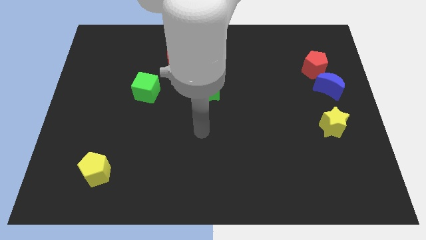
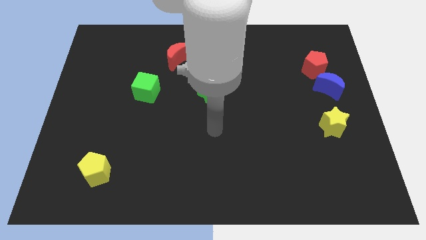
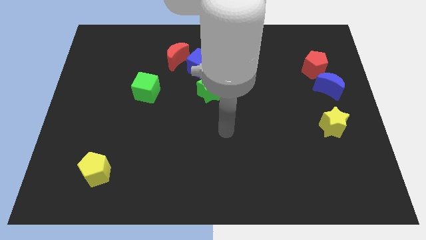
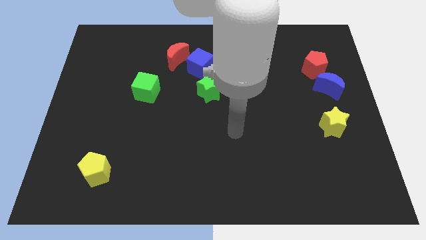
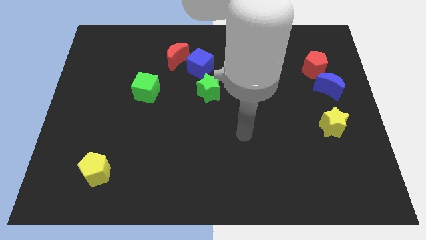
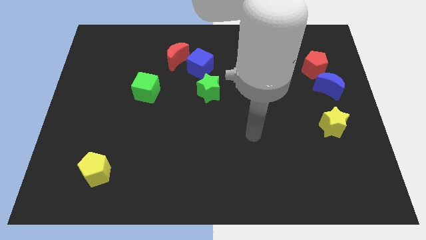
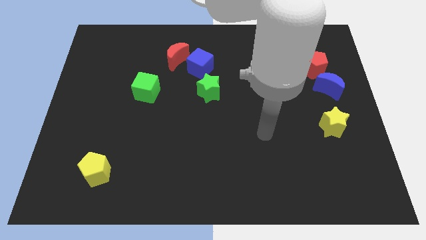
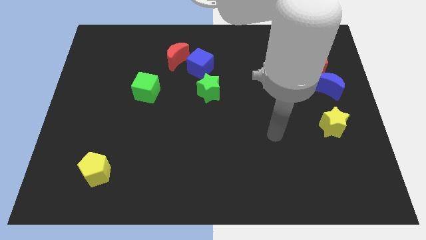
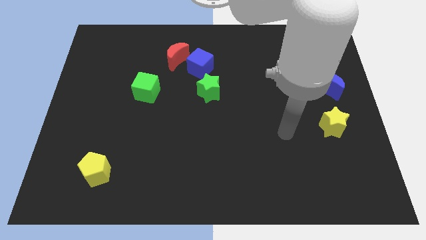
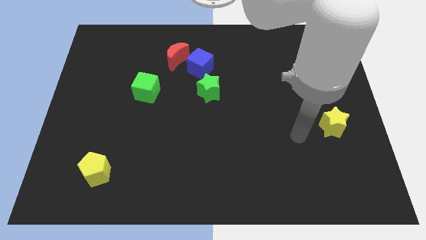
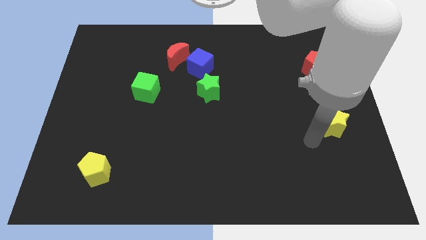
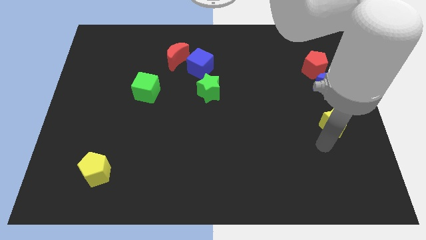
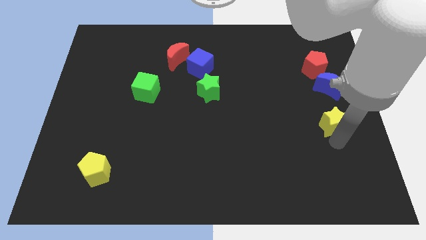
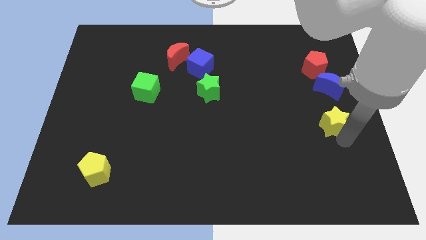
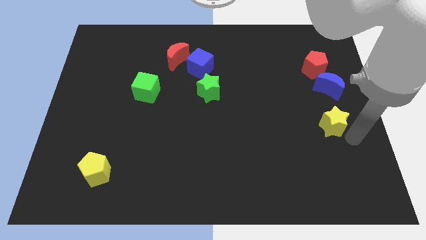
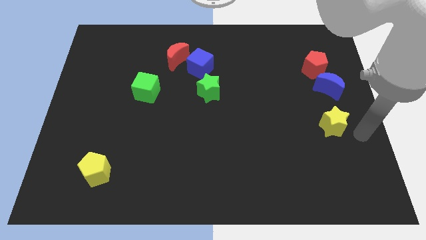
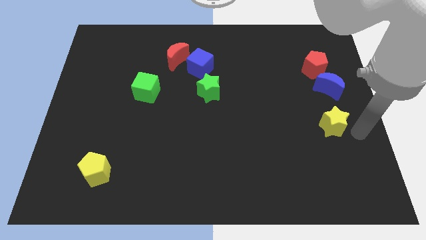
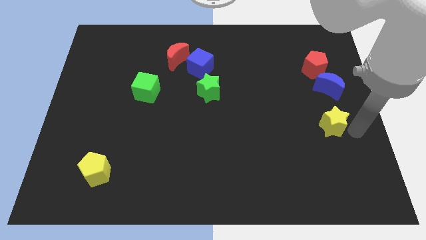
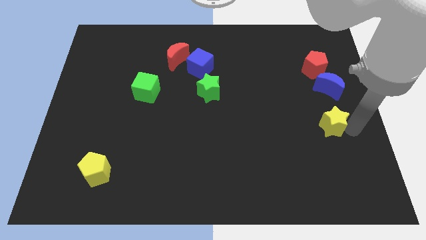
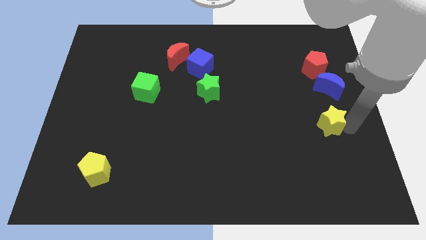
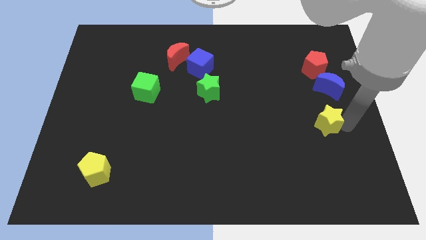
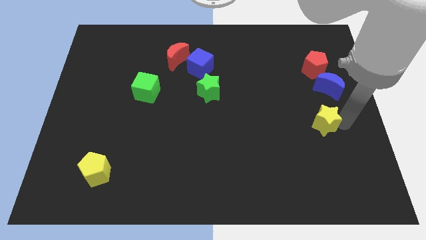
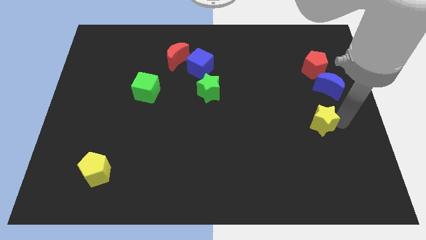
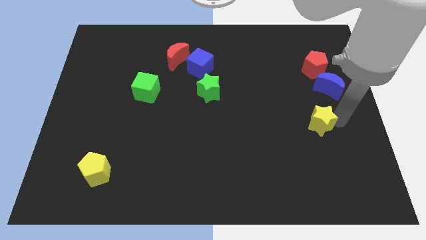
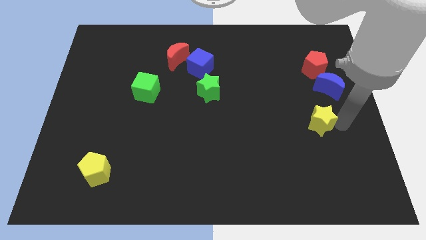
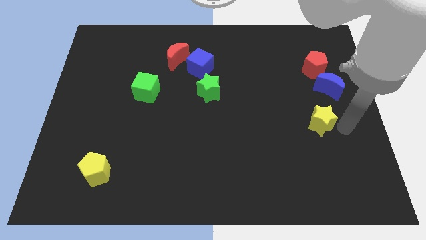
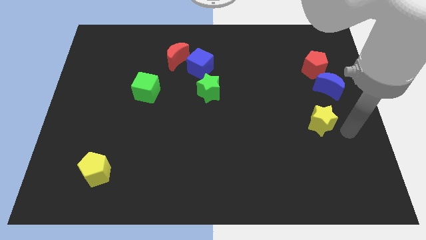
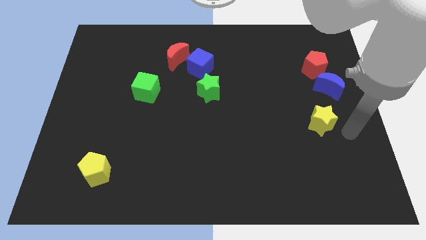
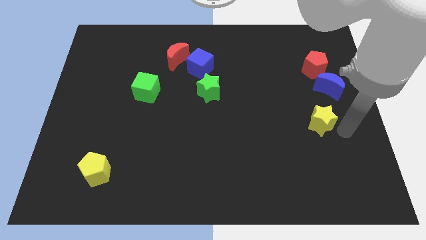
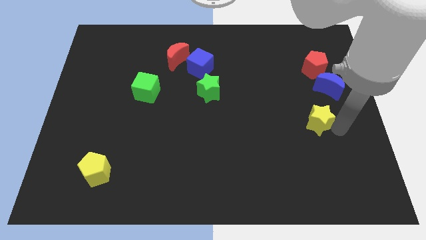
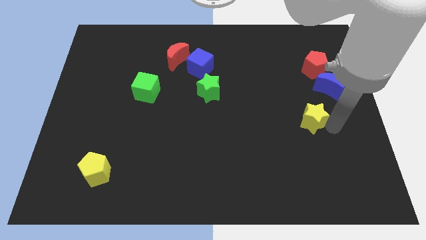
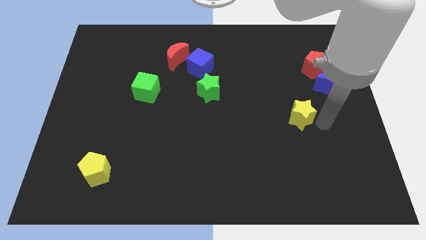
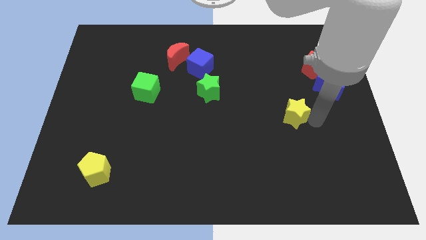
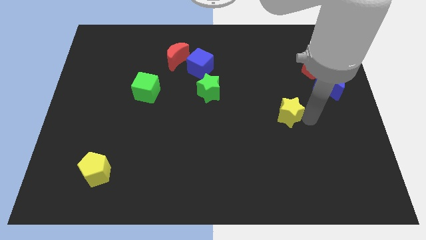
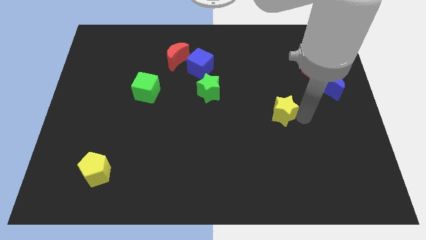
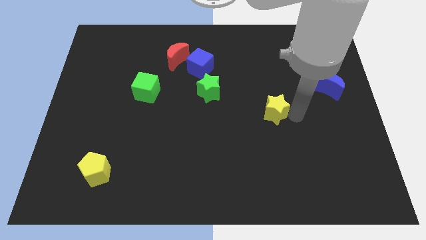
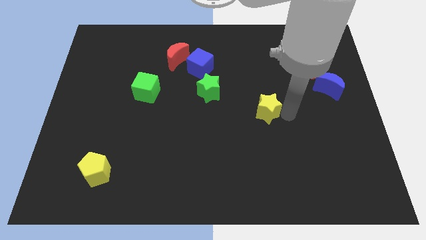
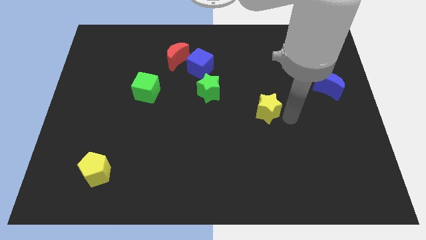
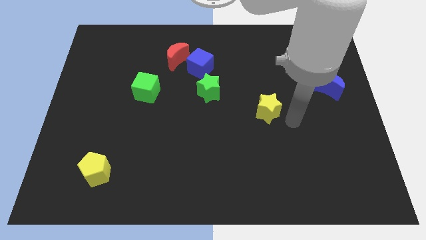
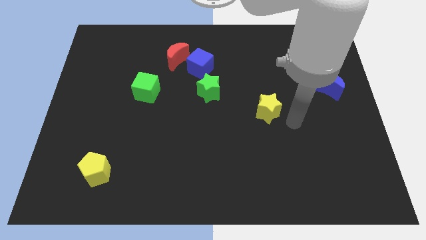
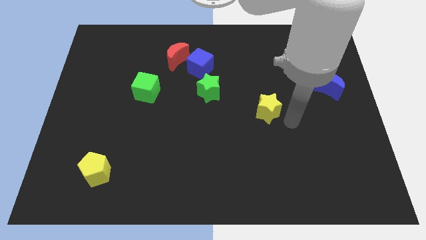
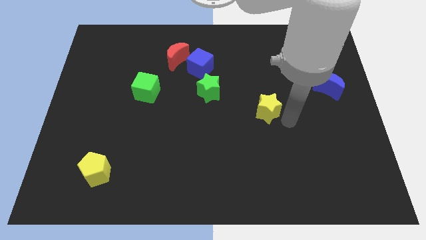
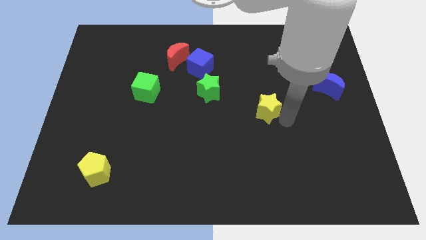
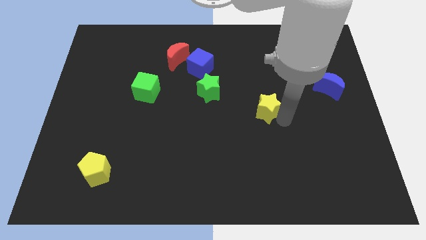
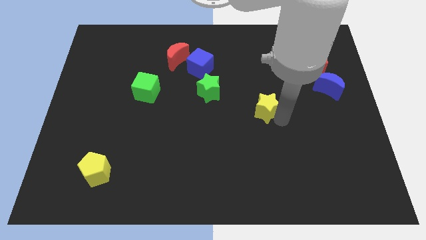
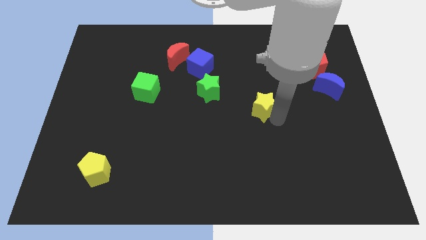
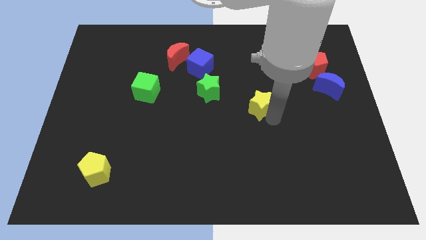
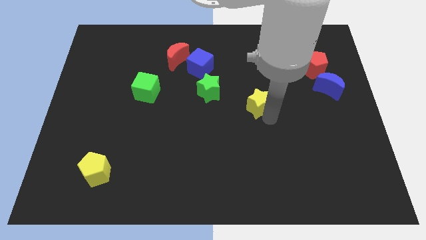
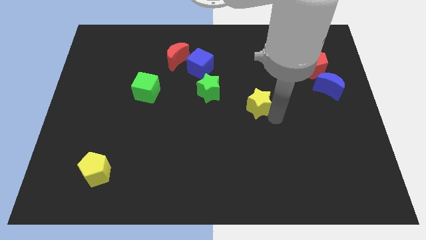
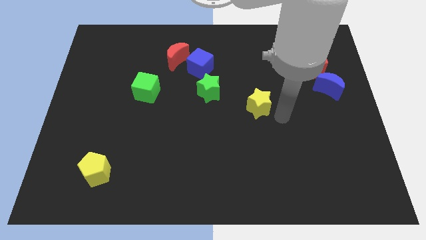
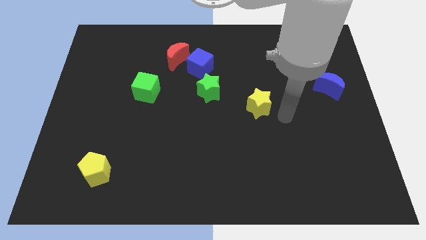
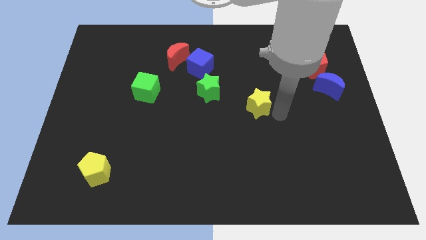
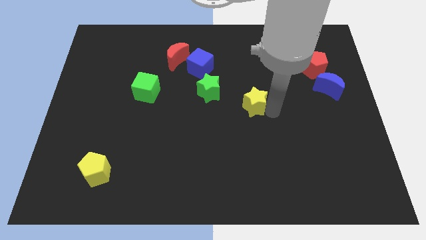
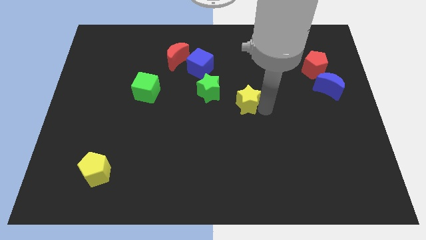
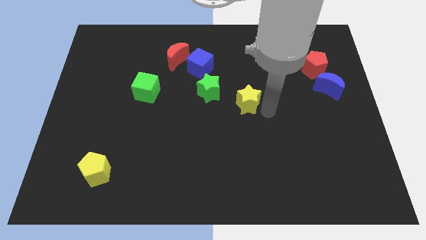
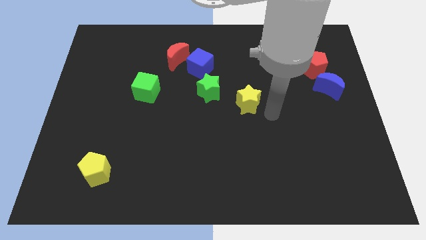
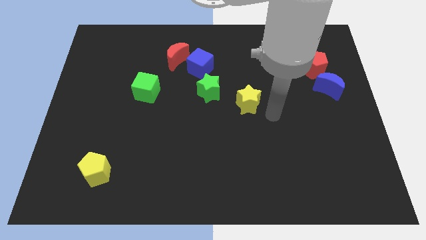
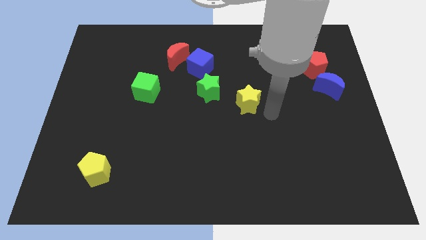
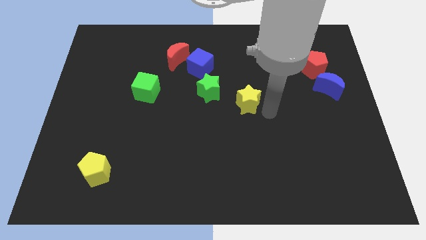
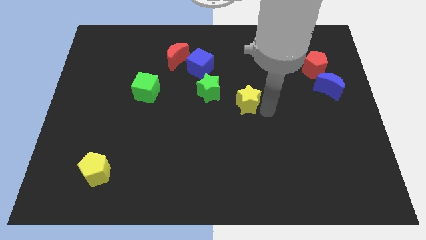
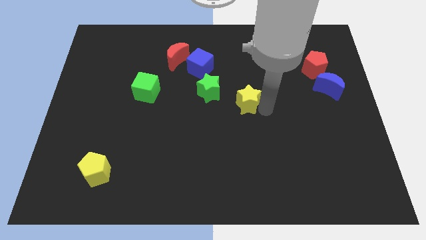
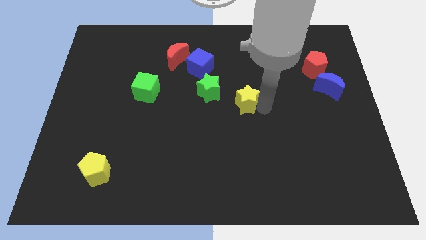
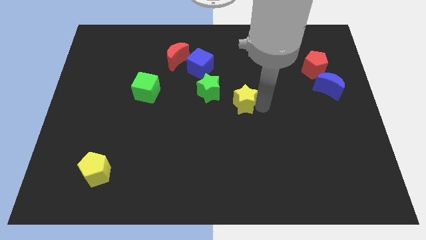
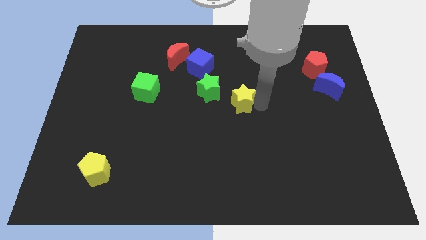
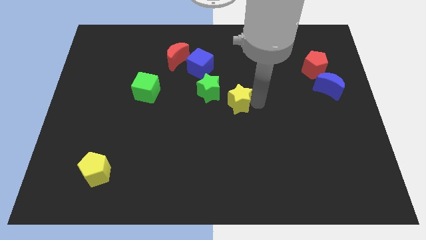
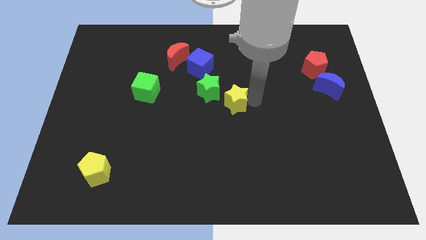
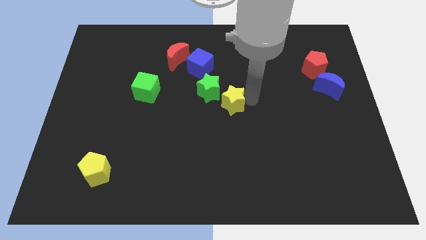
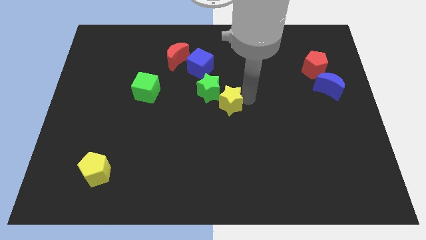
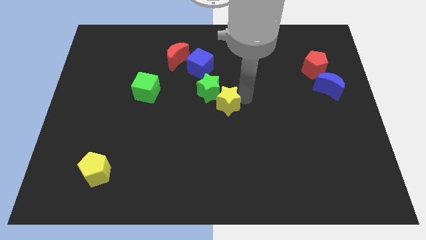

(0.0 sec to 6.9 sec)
put the yellow star to the green star

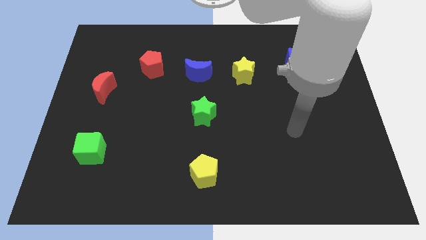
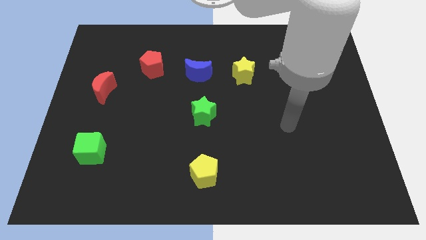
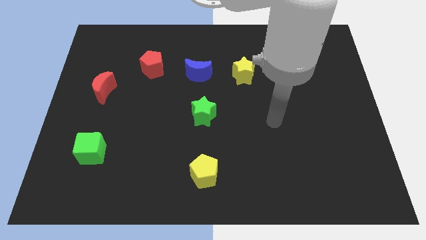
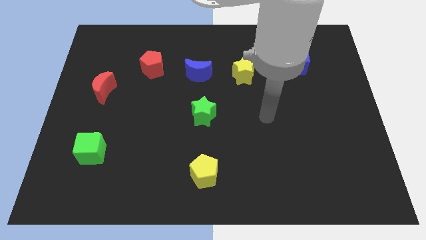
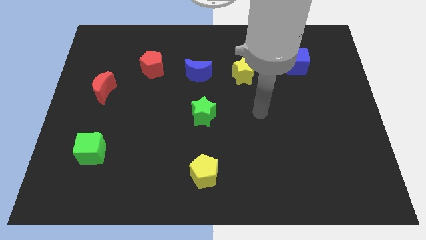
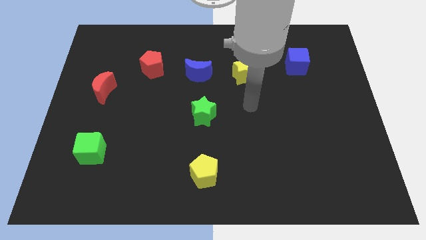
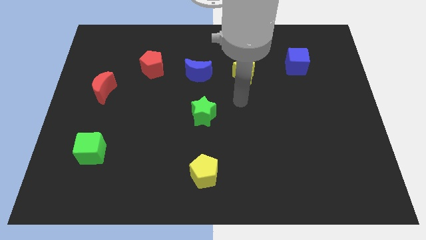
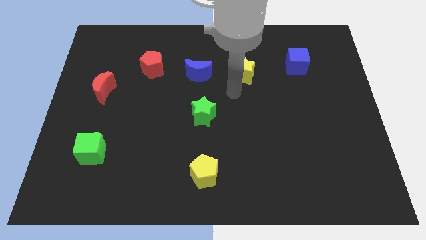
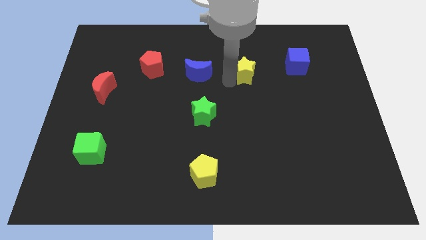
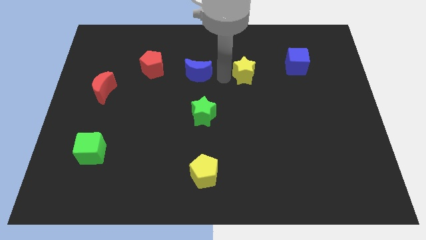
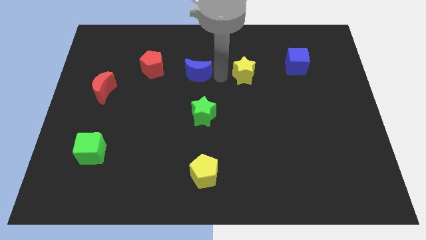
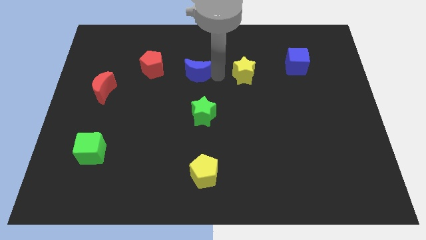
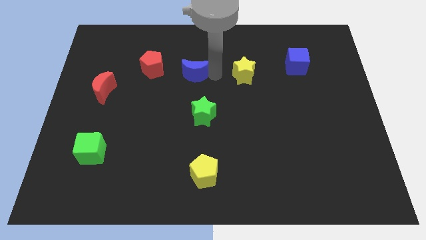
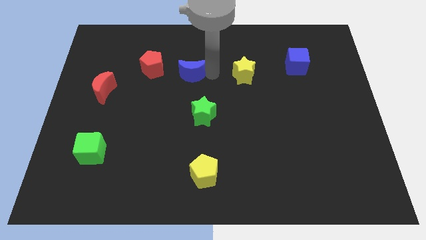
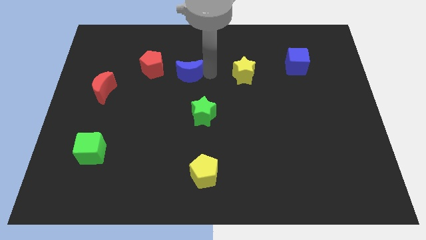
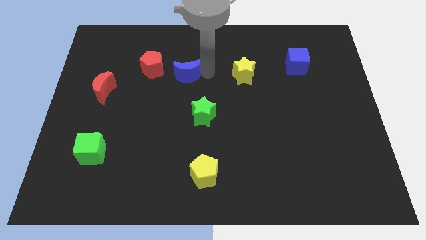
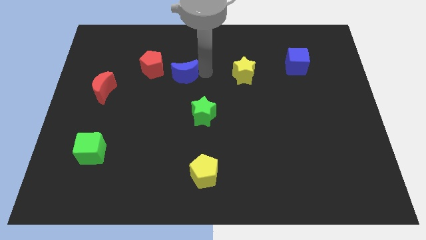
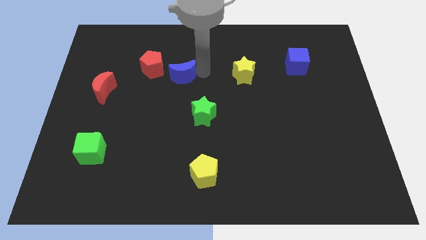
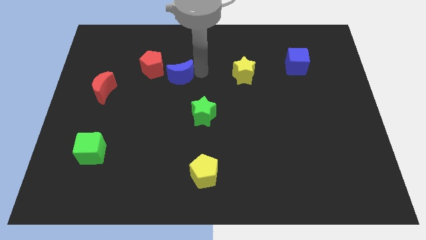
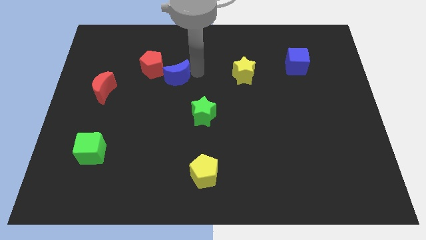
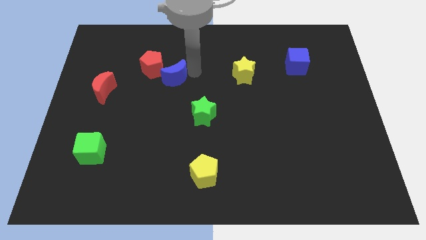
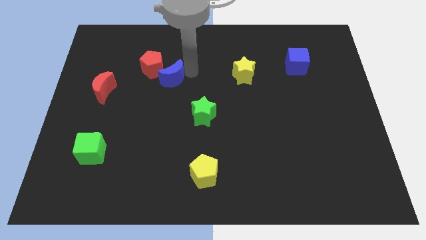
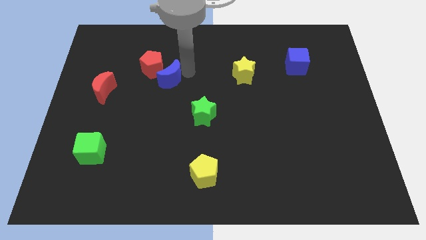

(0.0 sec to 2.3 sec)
put the blue moon towards the red pentagon
